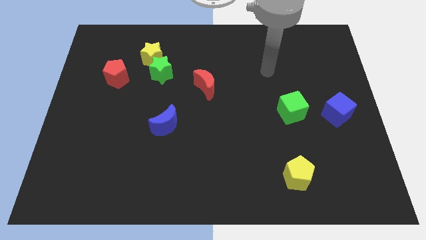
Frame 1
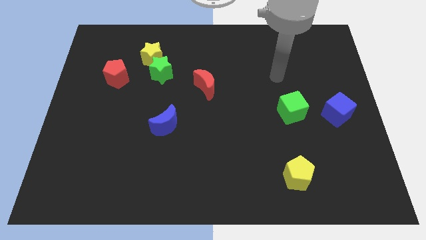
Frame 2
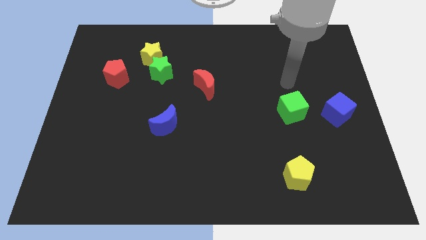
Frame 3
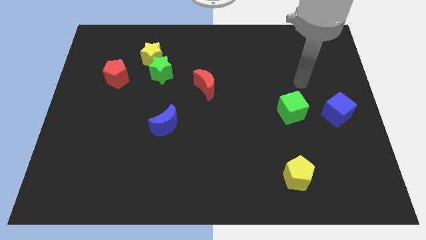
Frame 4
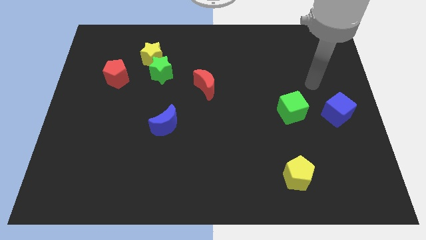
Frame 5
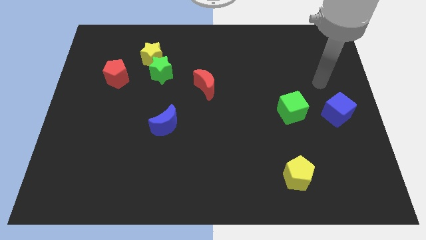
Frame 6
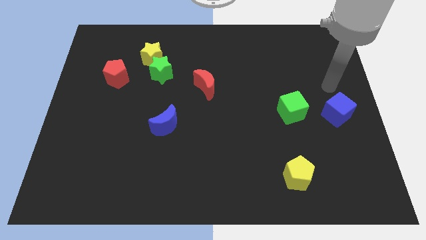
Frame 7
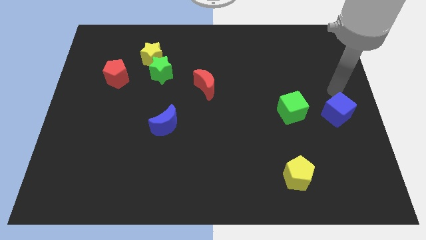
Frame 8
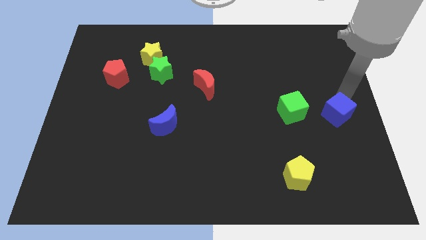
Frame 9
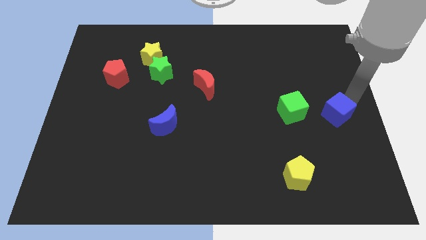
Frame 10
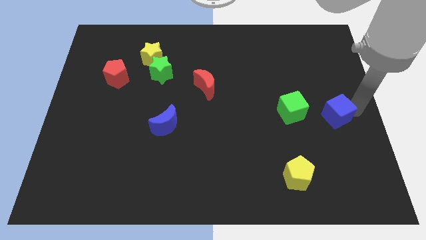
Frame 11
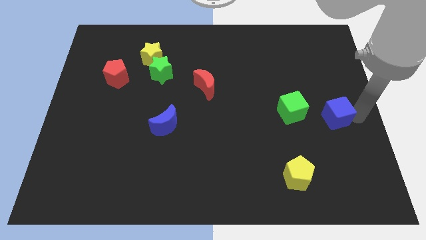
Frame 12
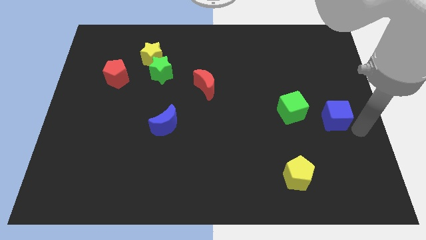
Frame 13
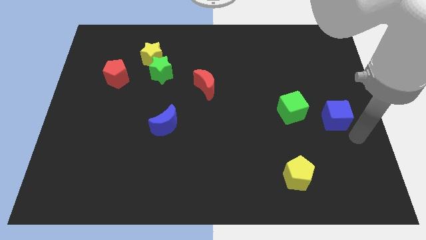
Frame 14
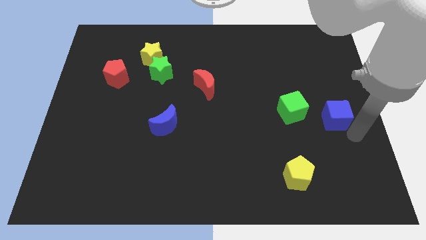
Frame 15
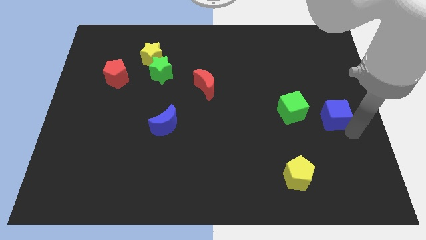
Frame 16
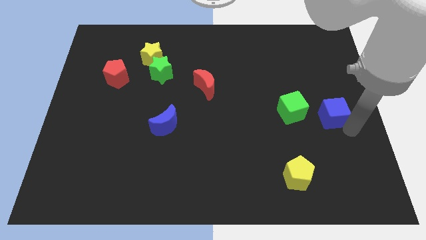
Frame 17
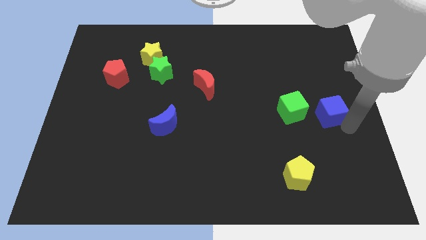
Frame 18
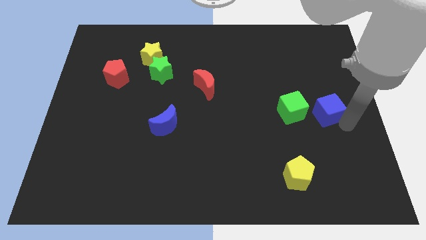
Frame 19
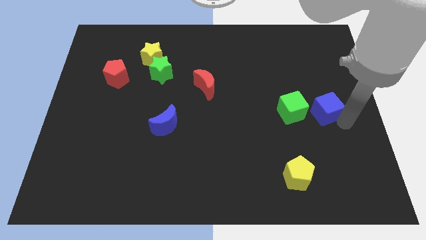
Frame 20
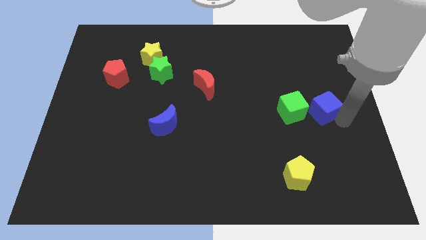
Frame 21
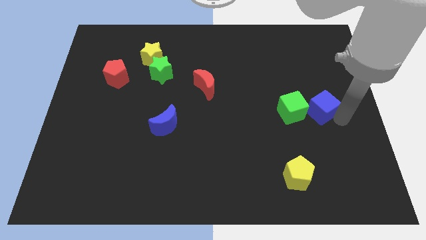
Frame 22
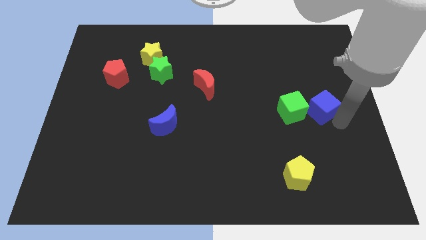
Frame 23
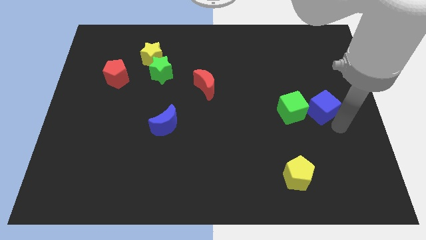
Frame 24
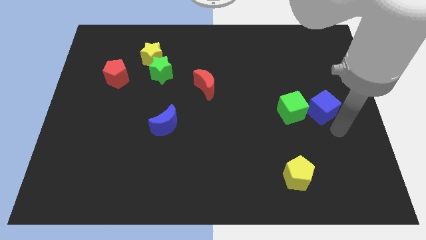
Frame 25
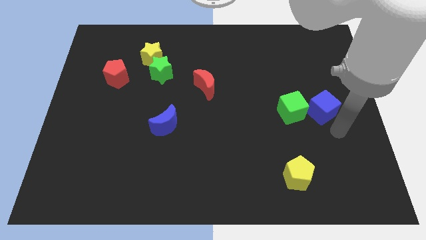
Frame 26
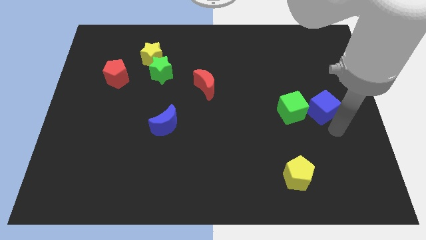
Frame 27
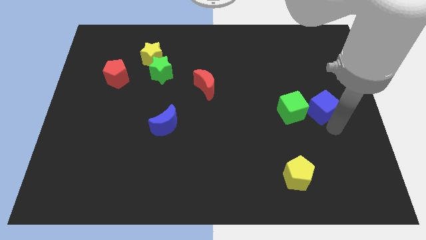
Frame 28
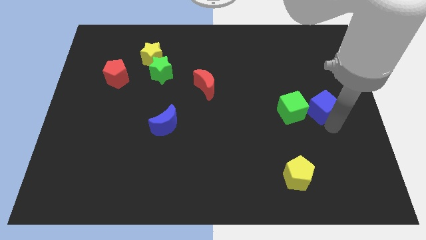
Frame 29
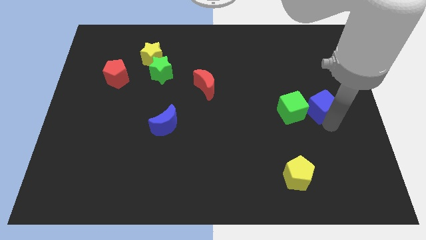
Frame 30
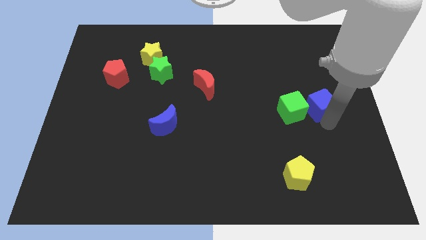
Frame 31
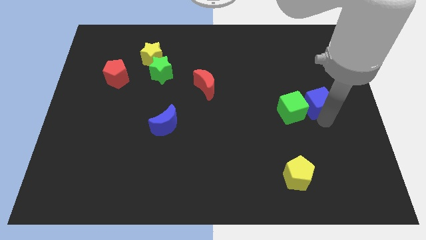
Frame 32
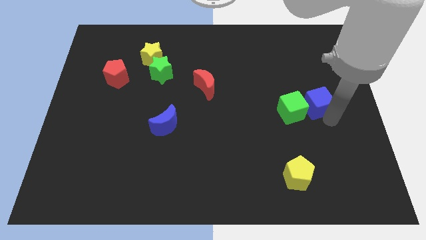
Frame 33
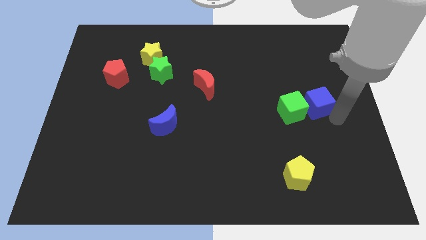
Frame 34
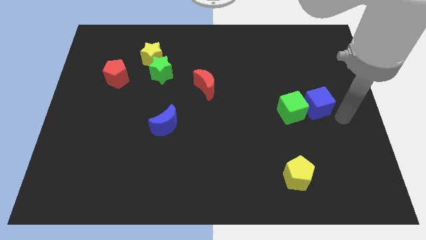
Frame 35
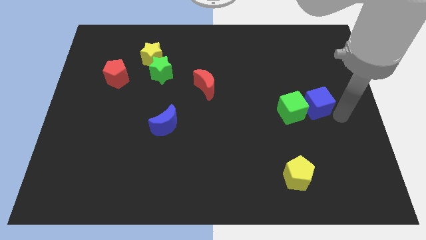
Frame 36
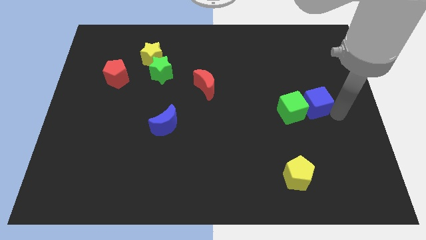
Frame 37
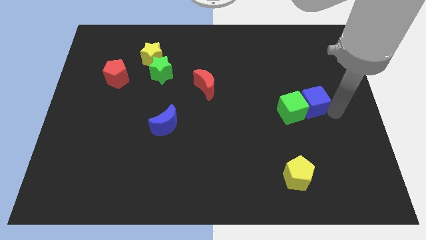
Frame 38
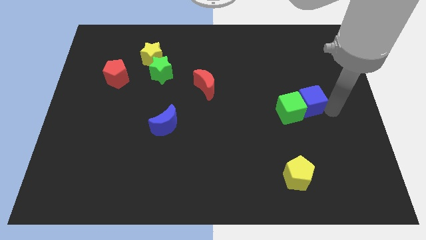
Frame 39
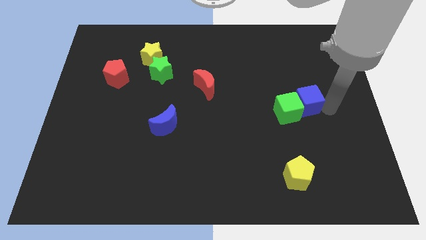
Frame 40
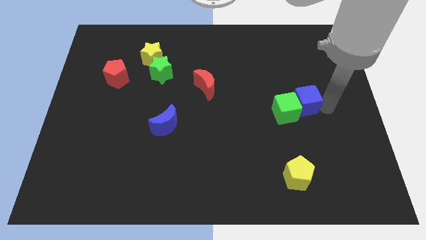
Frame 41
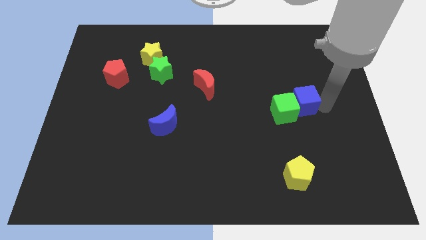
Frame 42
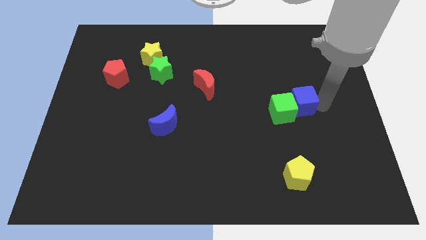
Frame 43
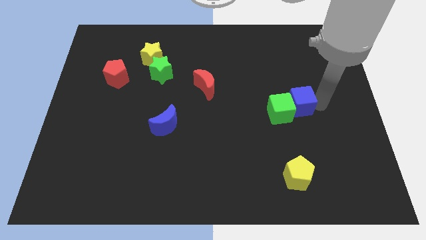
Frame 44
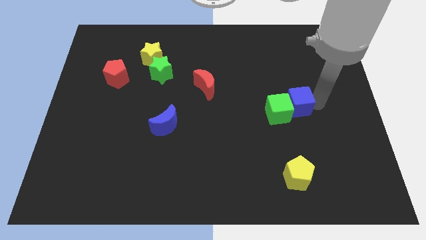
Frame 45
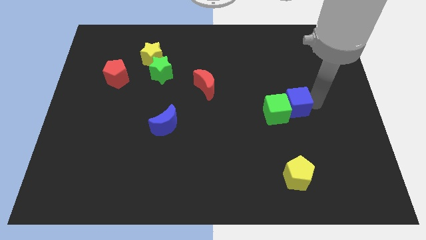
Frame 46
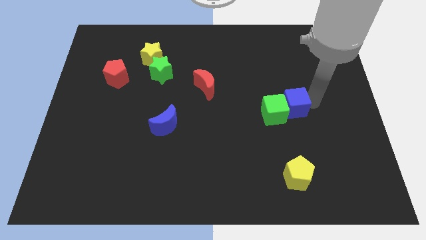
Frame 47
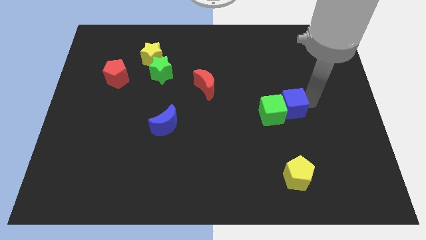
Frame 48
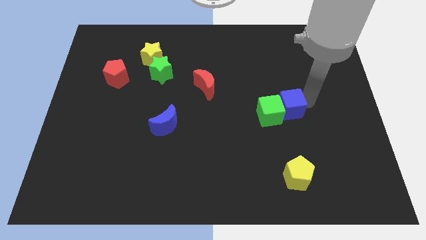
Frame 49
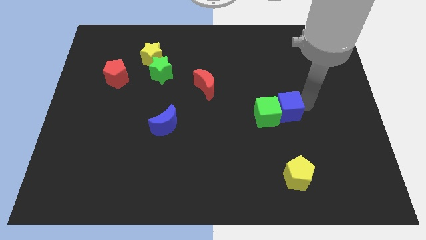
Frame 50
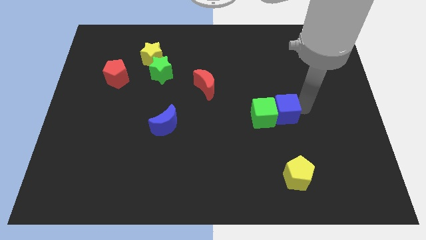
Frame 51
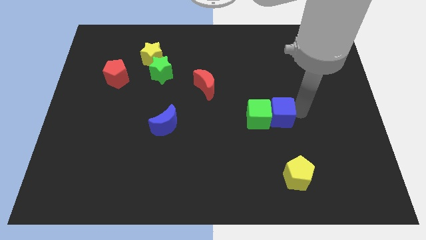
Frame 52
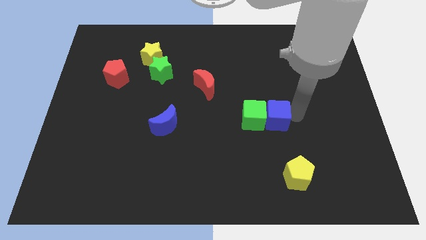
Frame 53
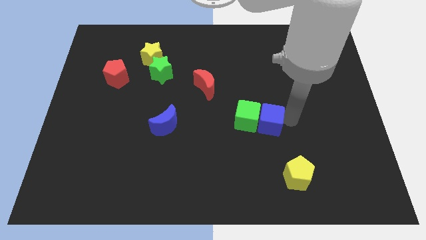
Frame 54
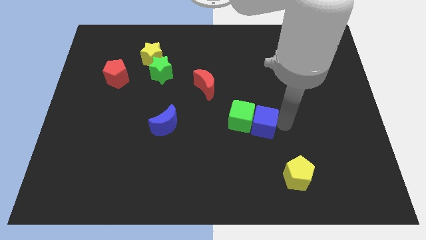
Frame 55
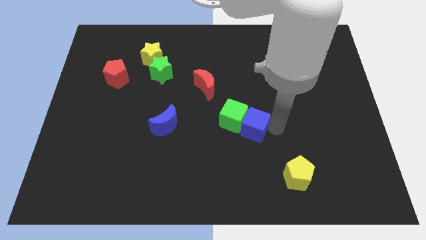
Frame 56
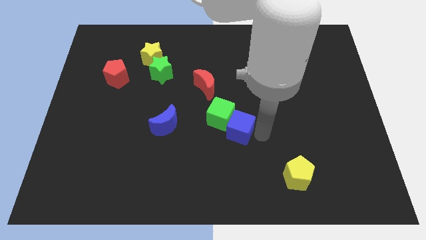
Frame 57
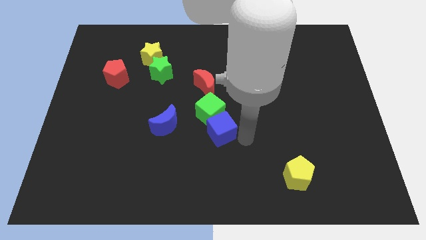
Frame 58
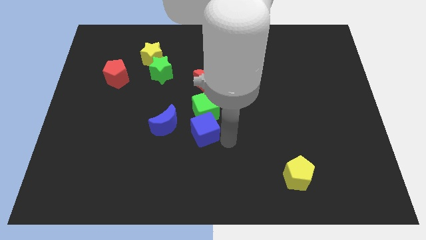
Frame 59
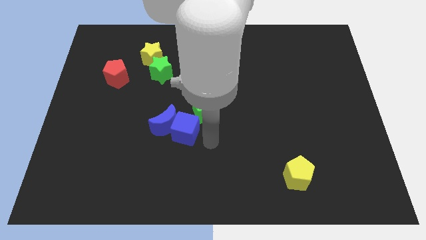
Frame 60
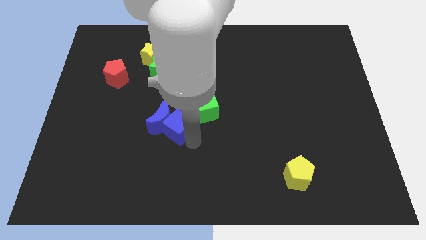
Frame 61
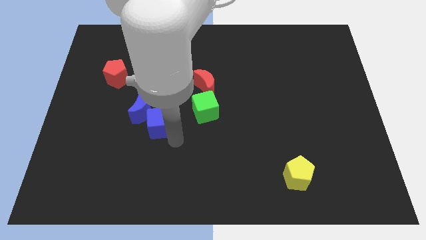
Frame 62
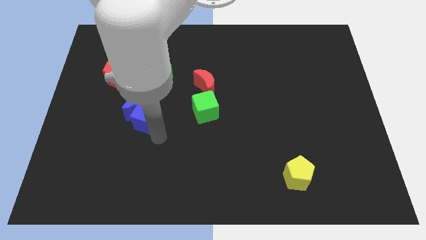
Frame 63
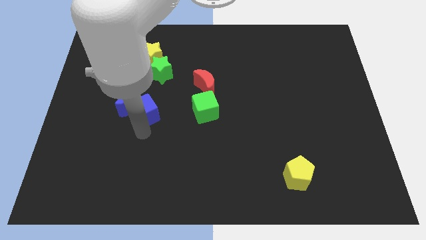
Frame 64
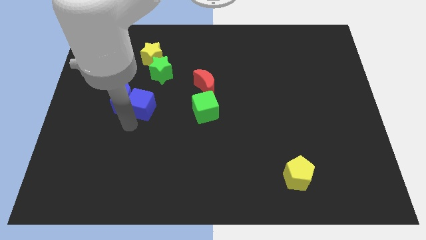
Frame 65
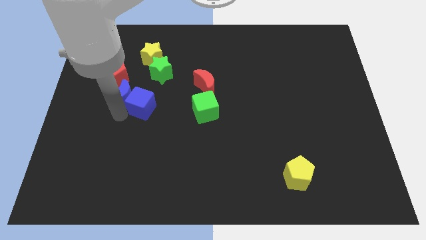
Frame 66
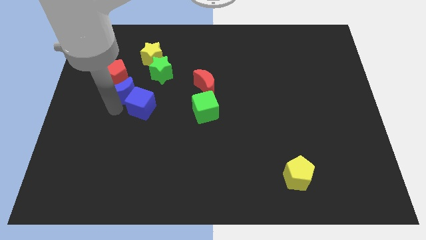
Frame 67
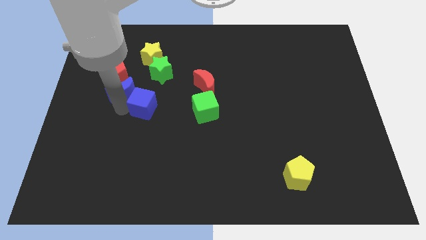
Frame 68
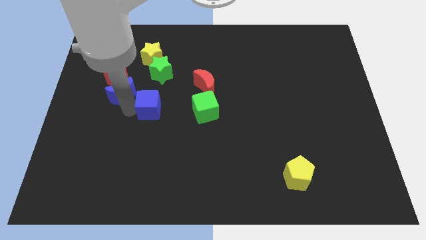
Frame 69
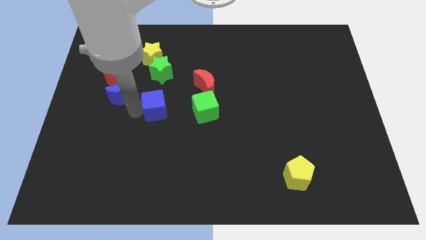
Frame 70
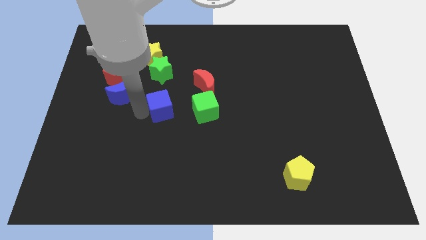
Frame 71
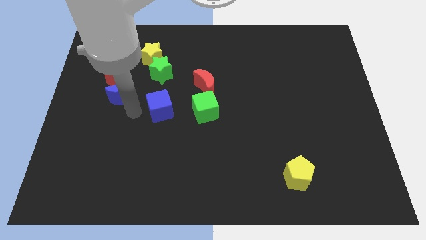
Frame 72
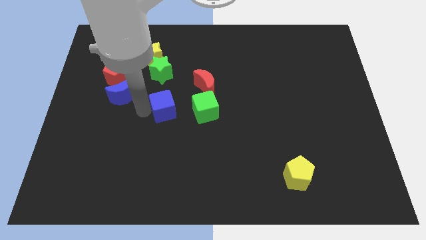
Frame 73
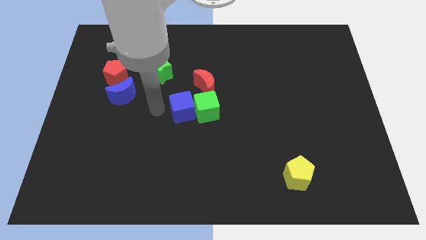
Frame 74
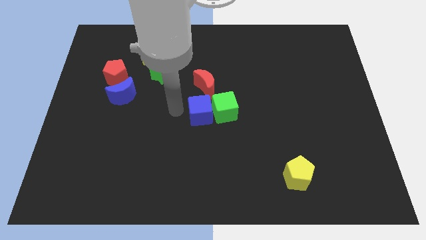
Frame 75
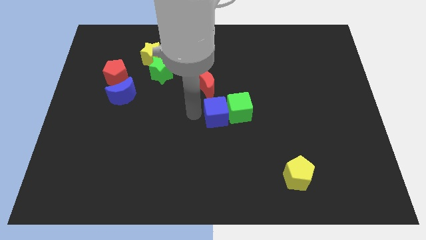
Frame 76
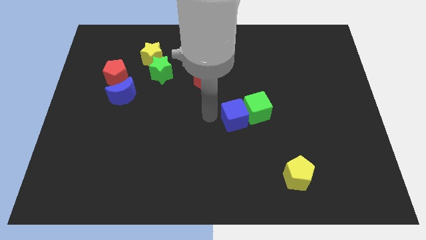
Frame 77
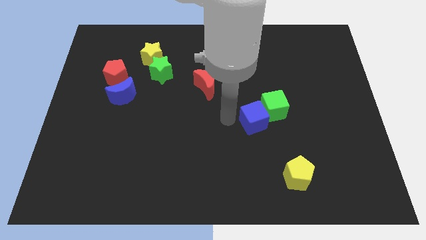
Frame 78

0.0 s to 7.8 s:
slide the blue cube to the left side of the green cube
